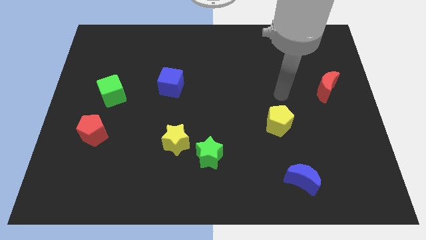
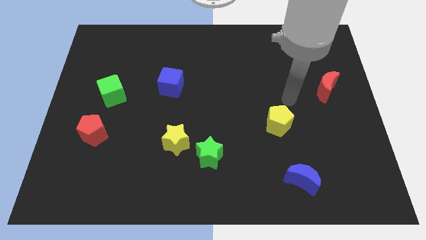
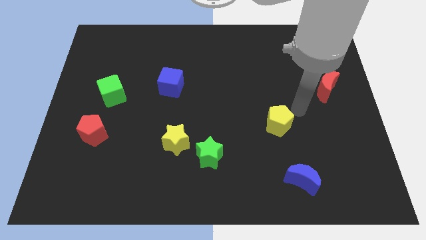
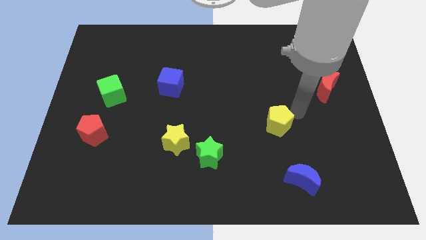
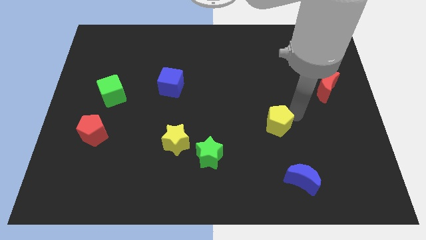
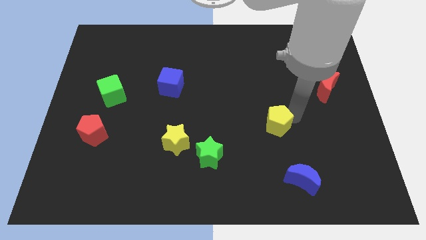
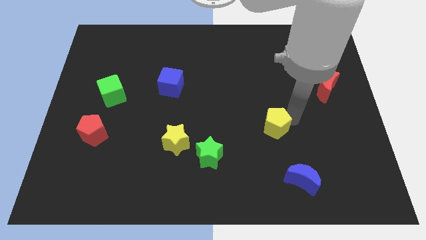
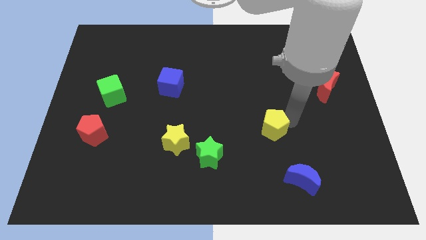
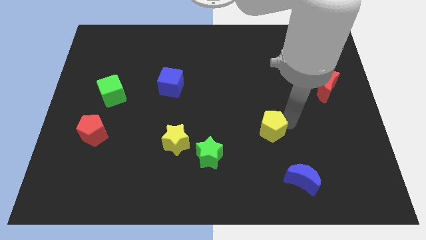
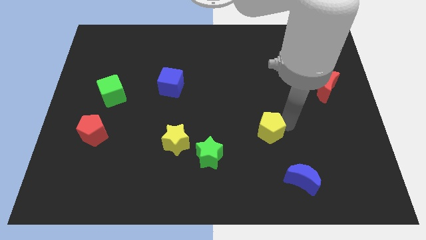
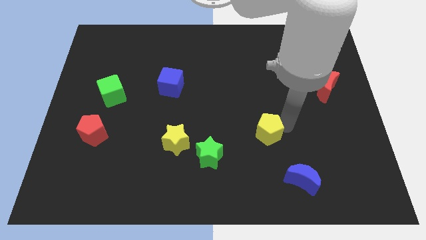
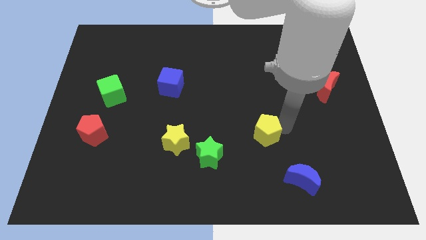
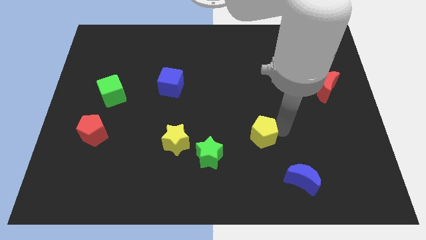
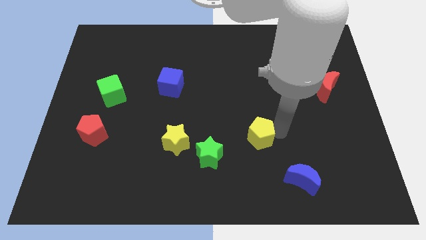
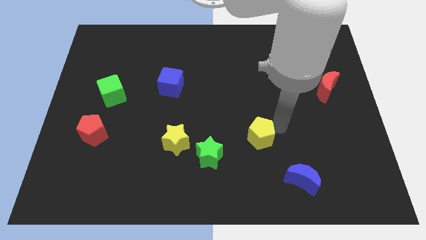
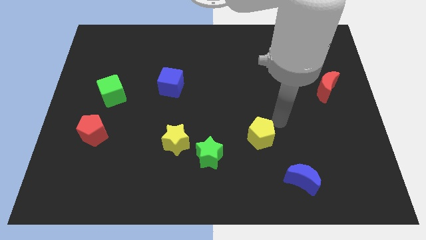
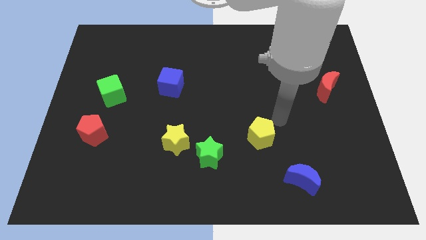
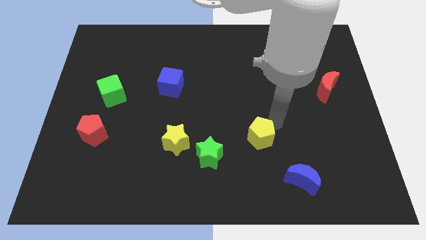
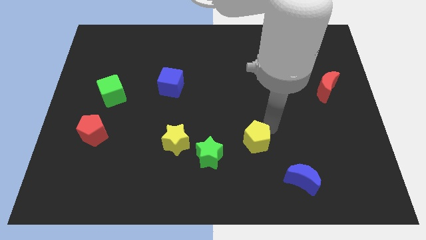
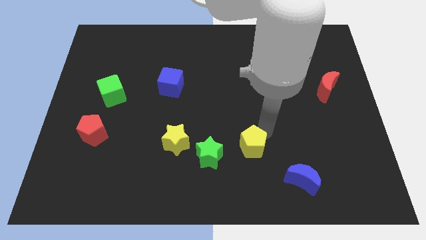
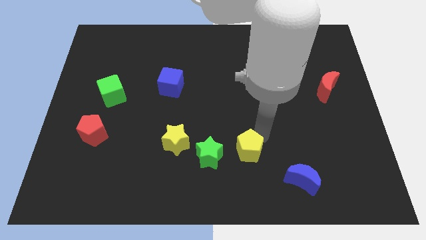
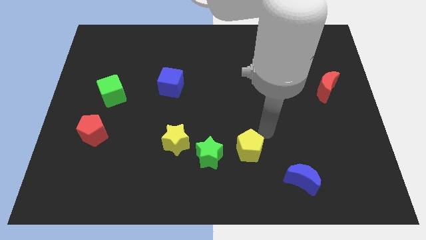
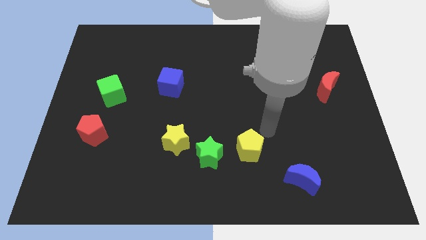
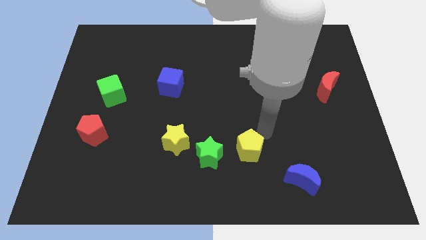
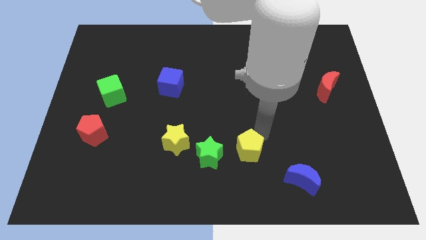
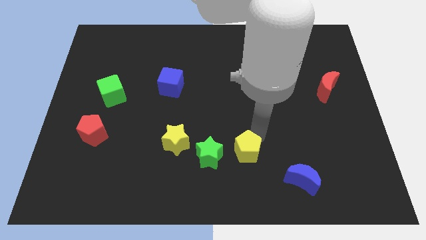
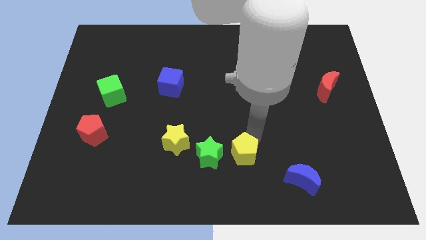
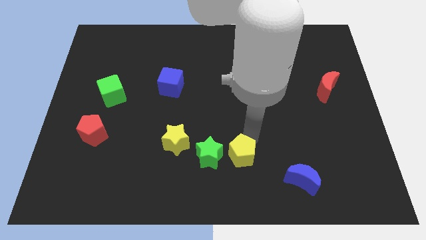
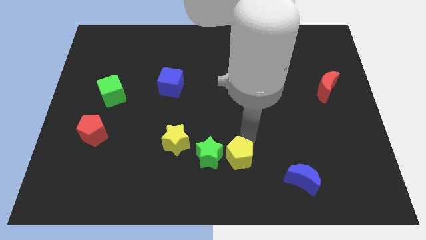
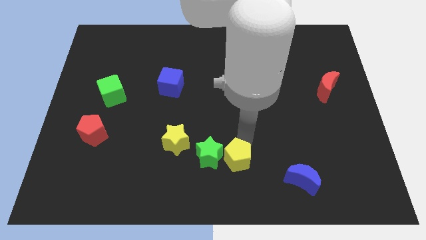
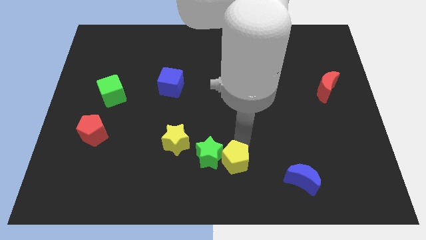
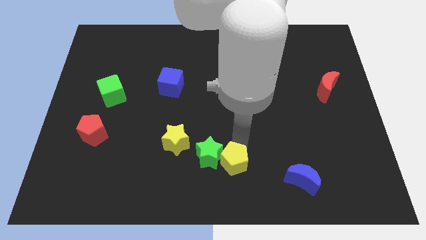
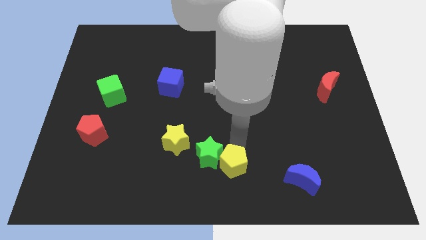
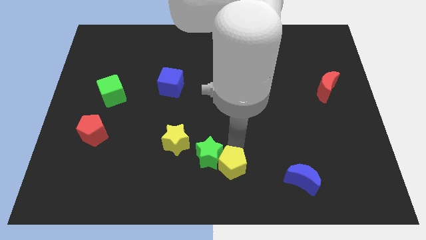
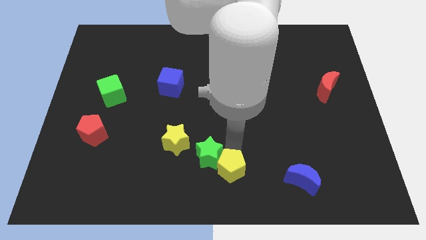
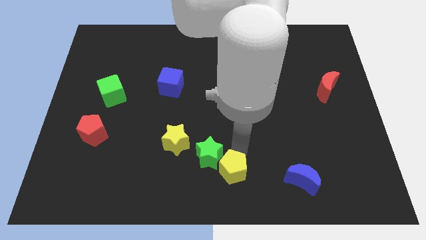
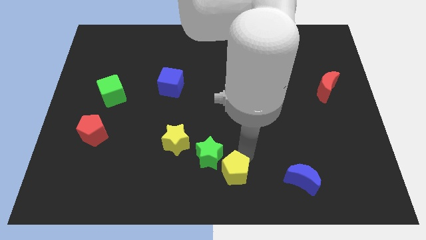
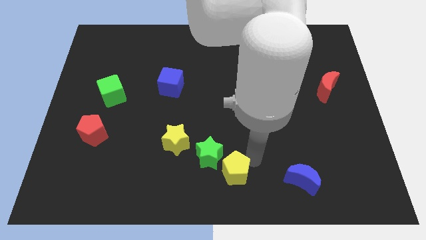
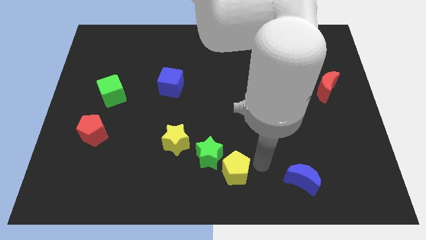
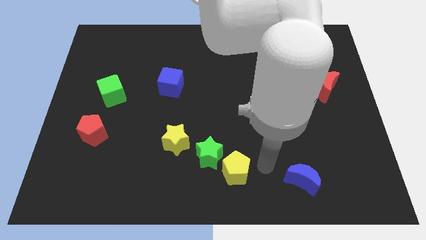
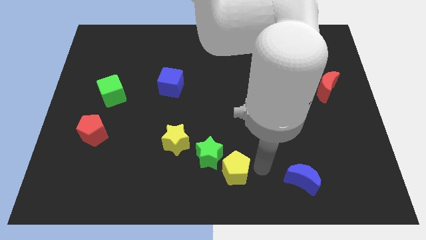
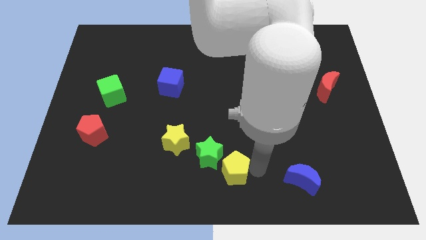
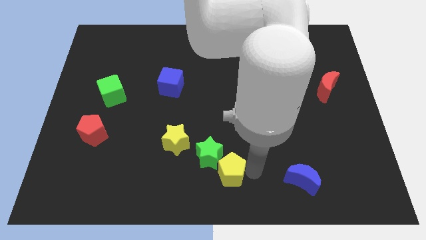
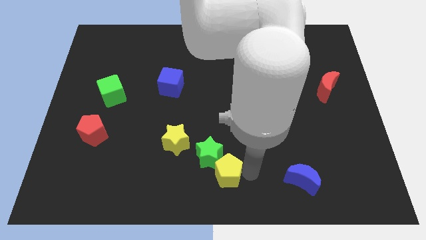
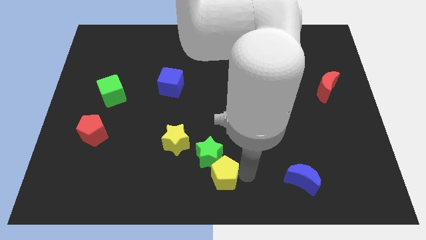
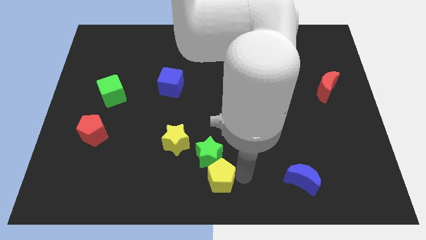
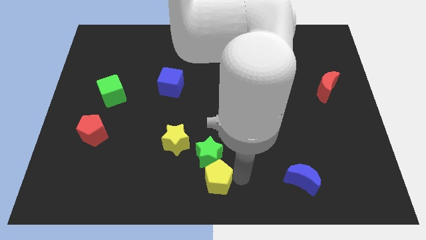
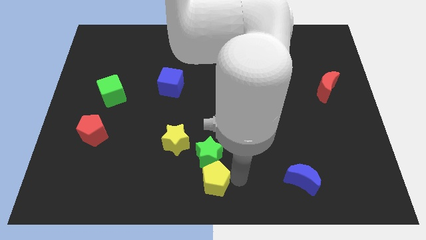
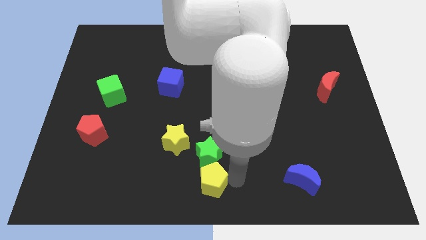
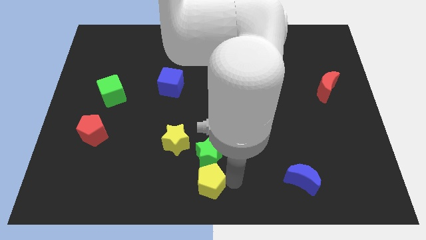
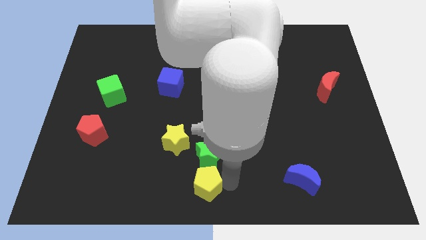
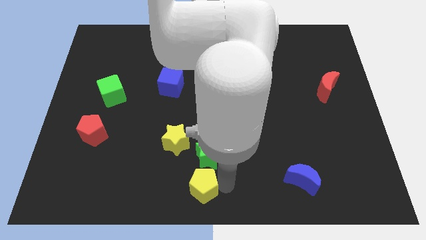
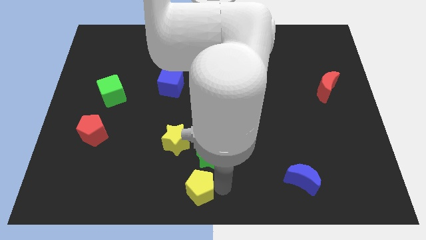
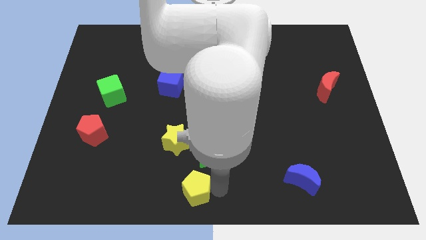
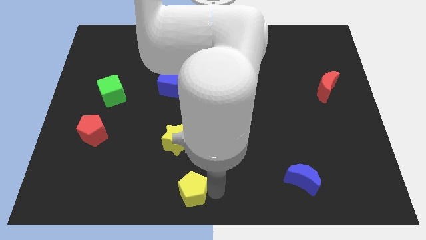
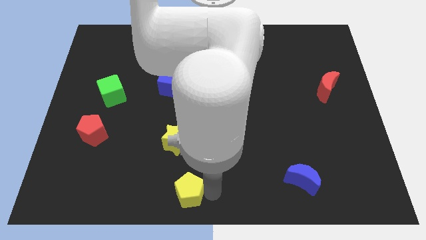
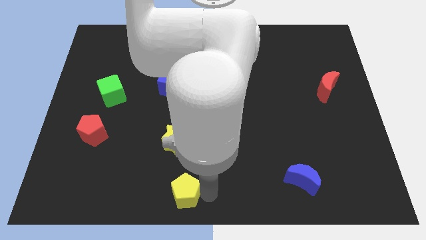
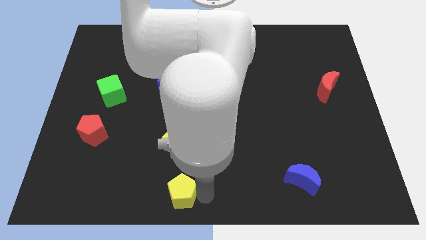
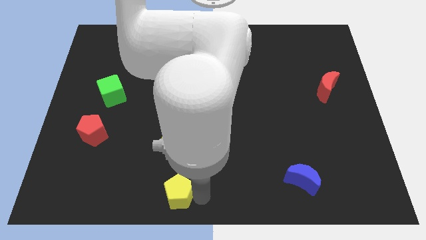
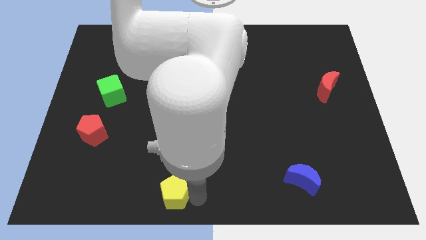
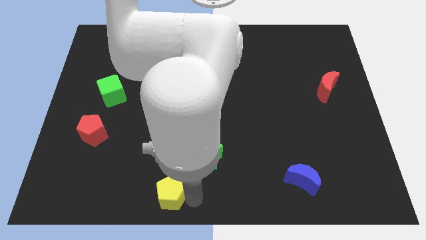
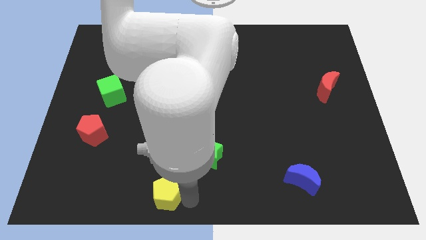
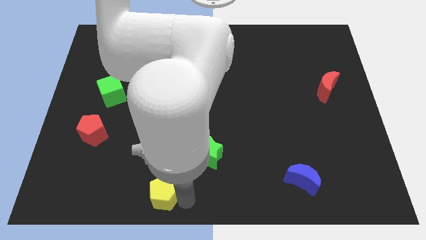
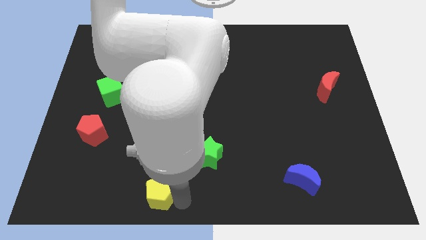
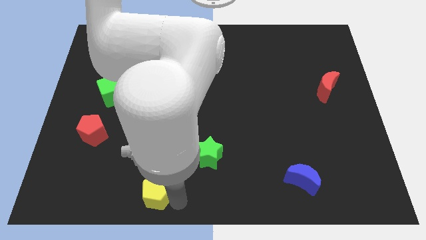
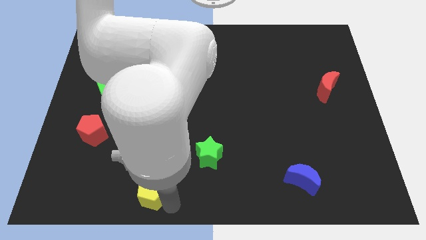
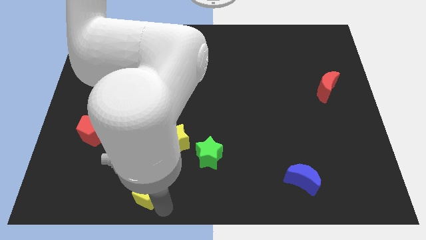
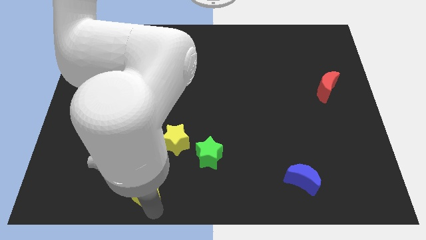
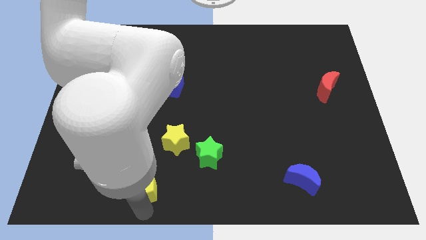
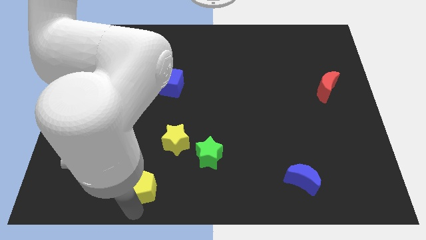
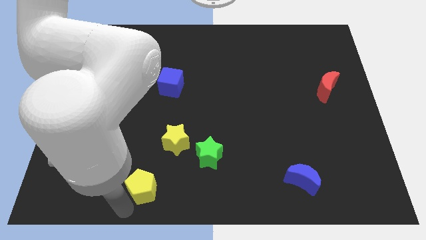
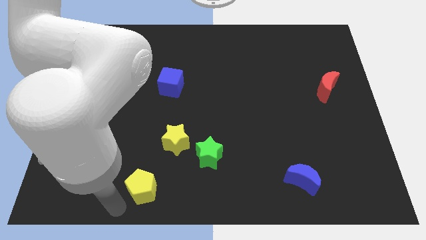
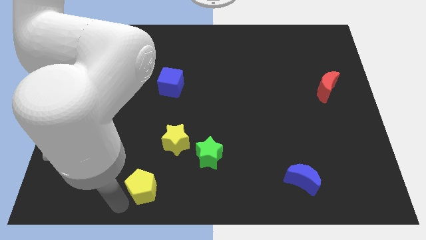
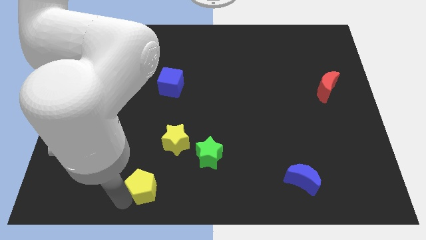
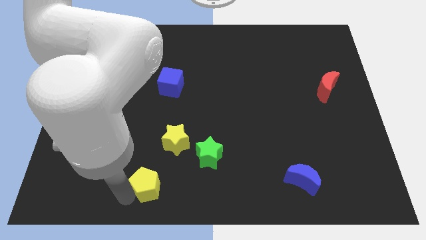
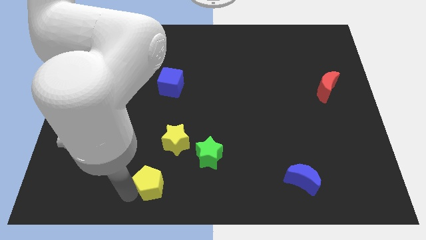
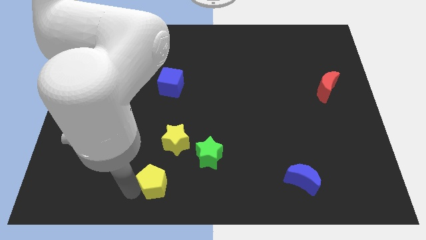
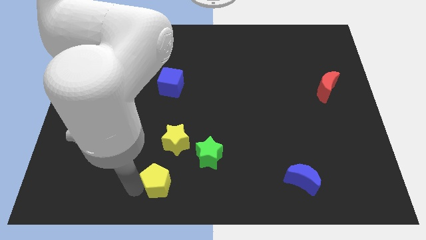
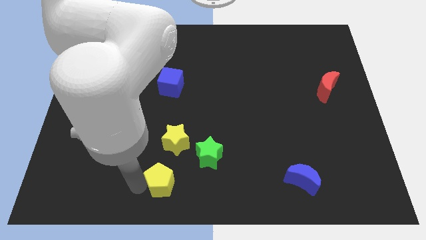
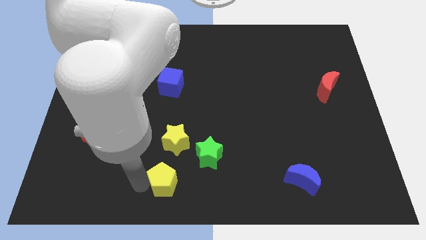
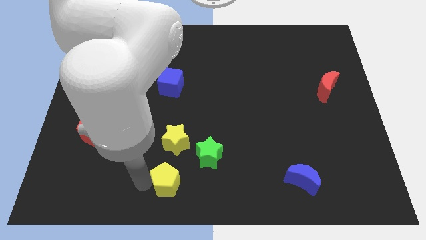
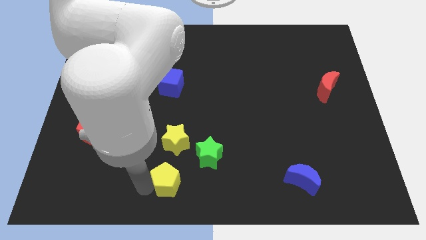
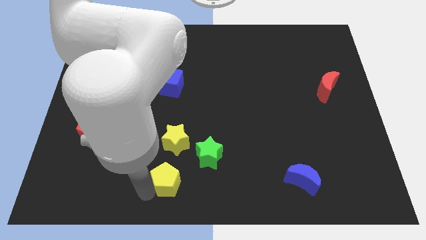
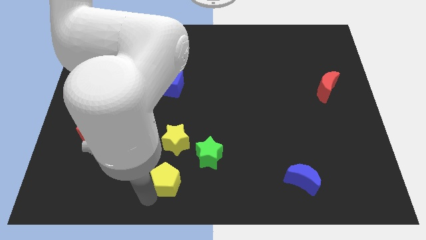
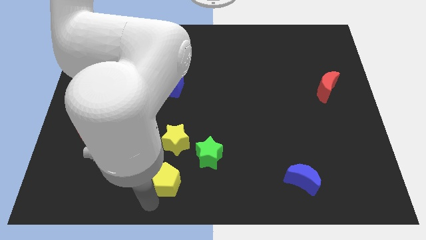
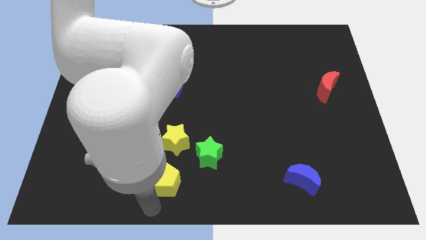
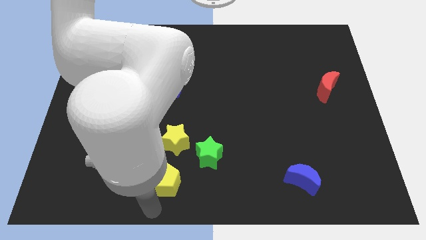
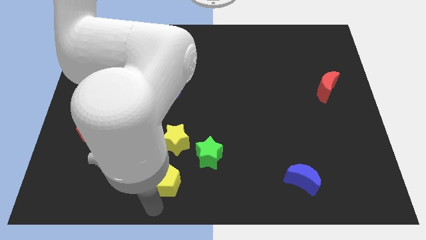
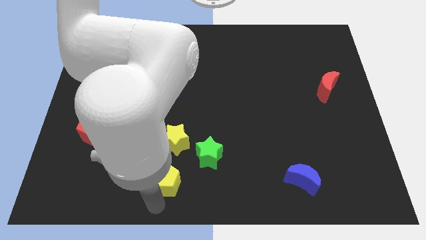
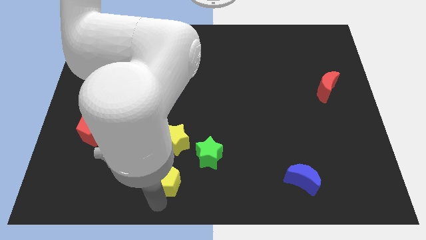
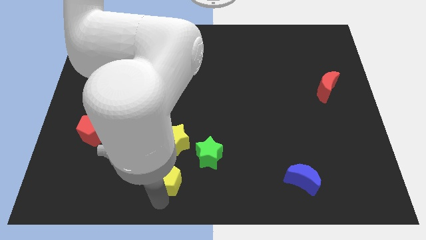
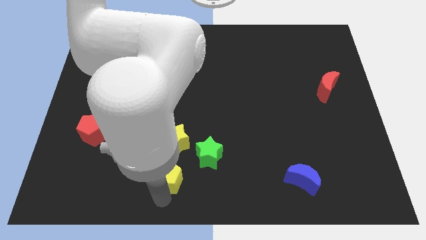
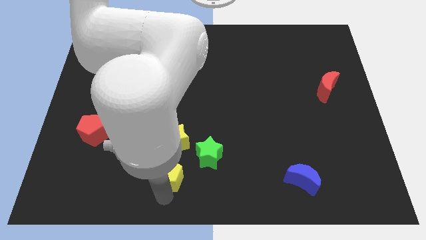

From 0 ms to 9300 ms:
move the yellow pentagon to the left side of the green star
